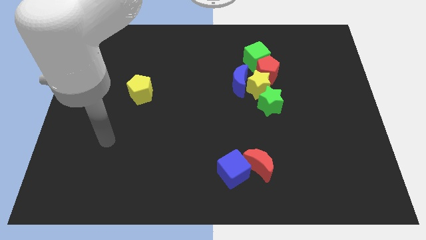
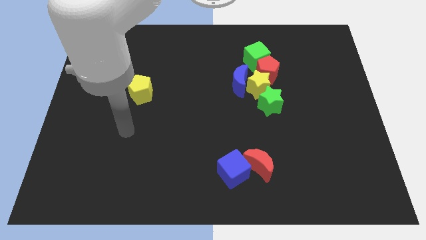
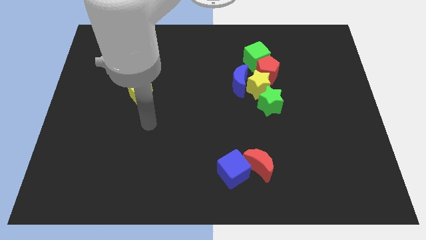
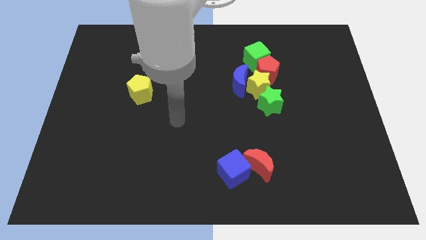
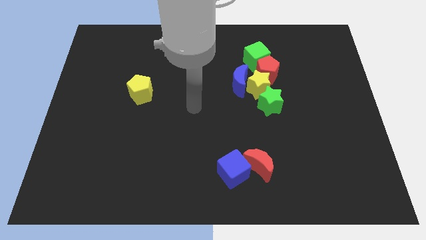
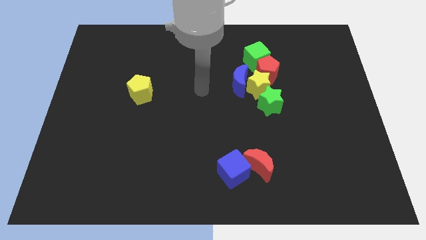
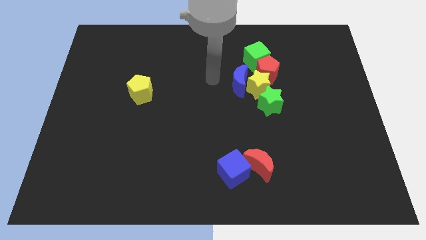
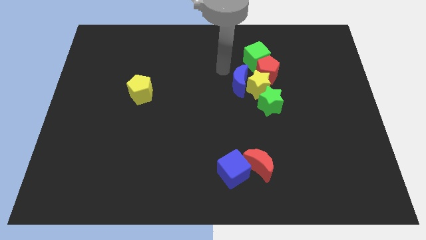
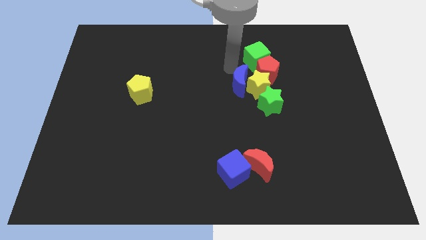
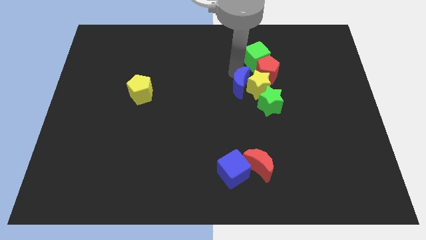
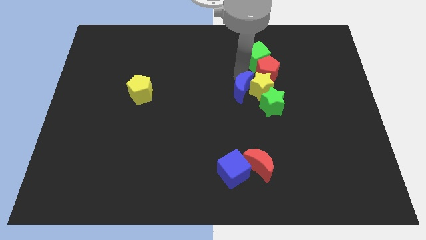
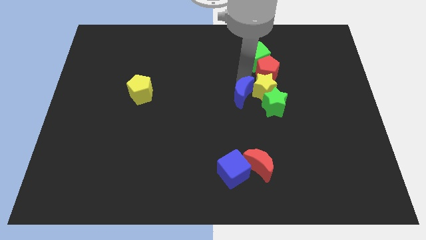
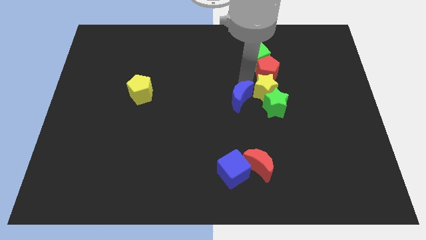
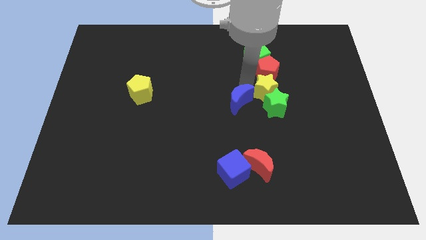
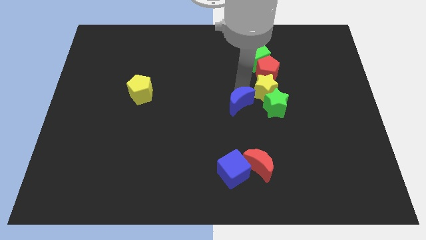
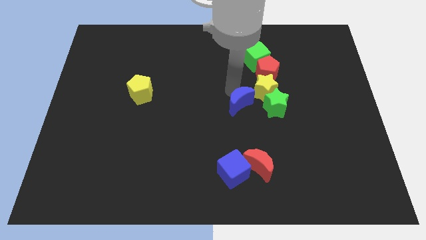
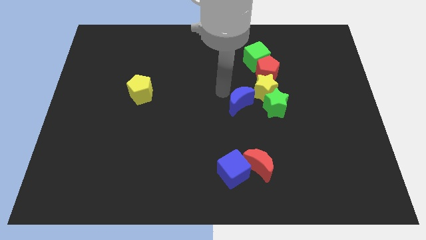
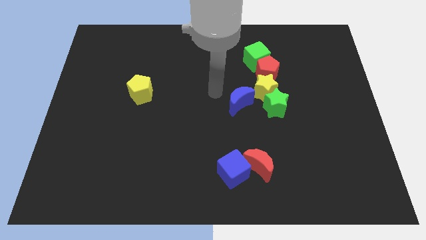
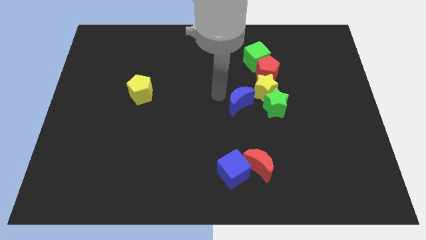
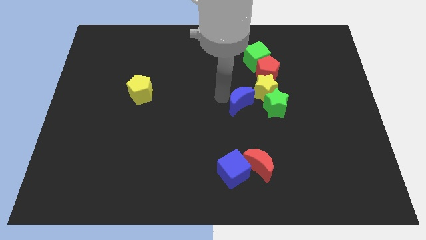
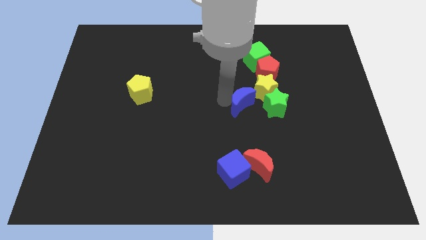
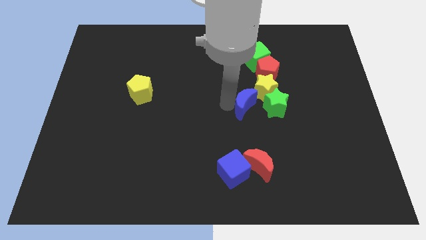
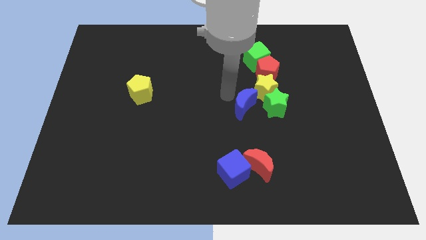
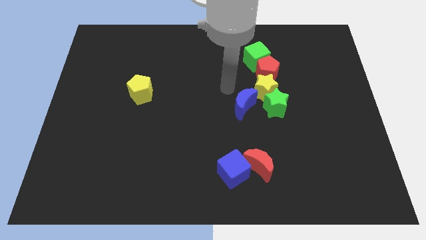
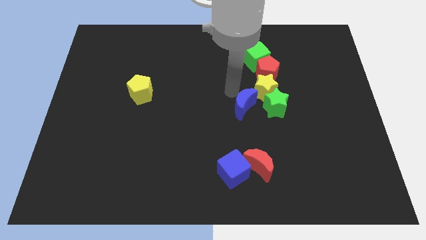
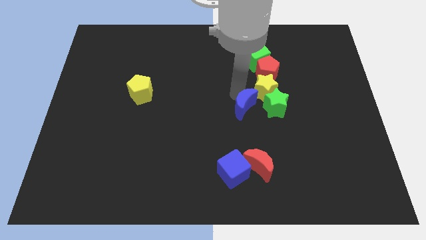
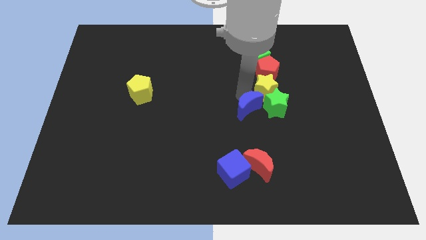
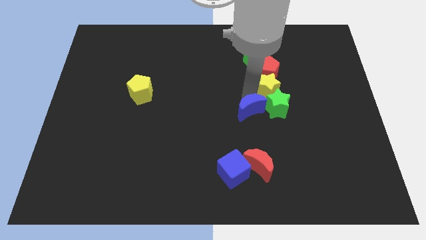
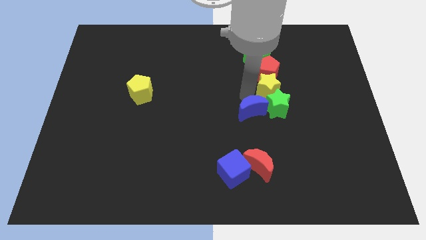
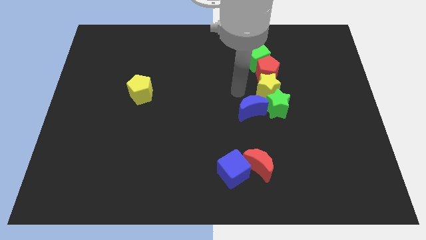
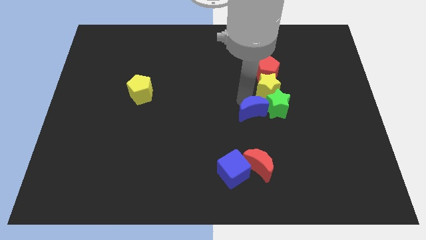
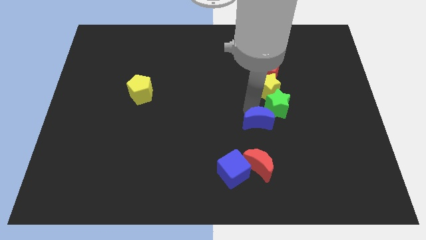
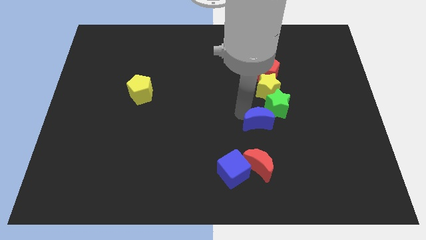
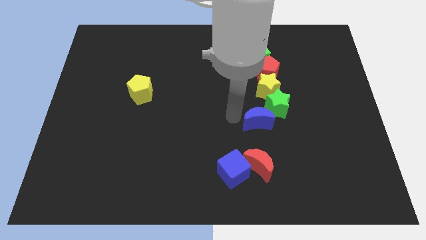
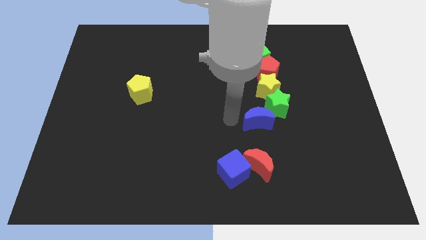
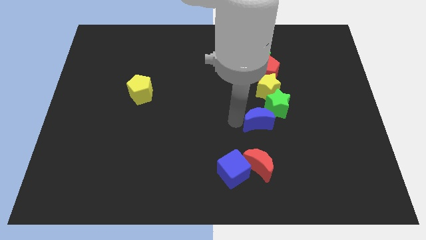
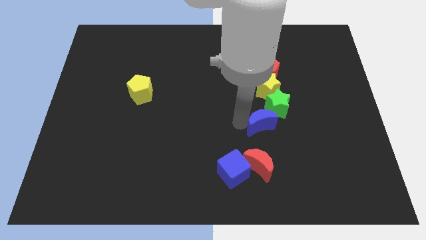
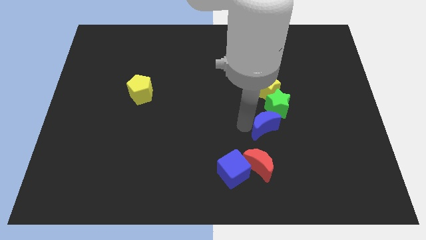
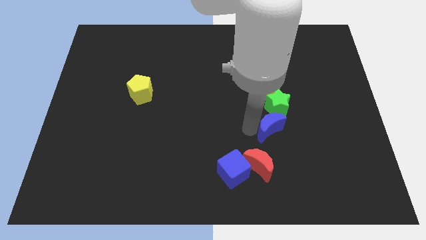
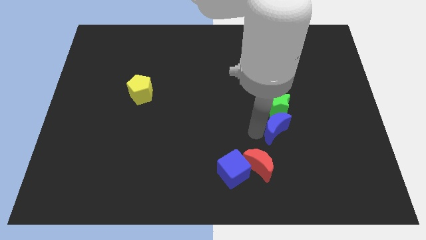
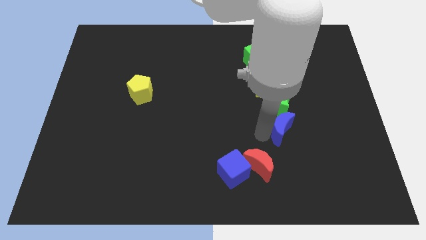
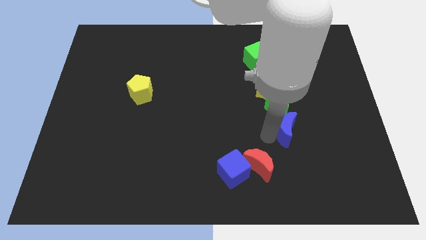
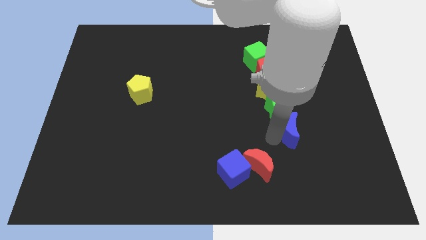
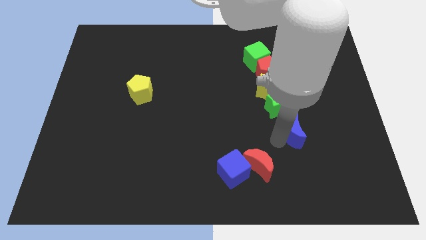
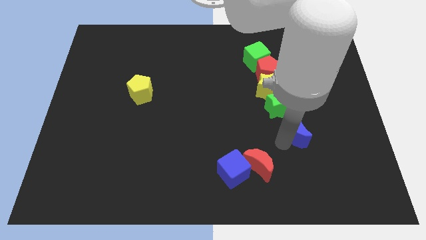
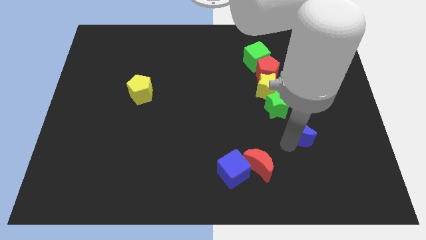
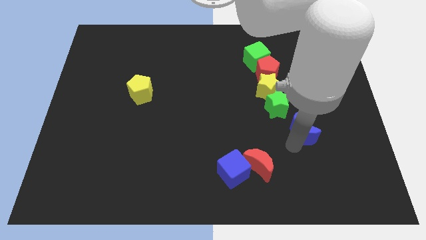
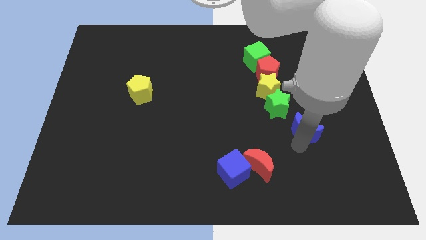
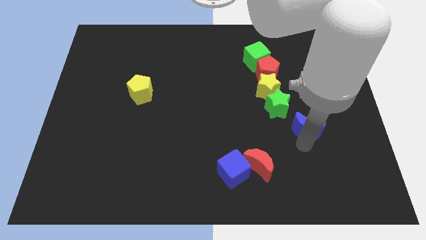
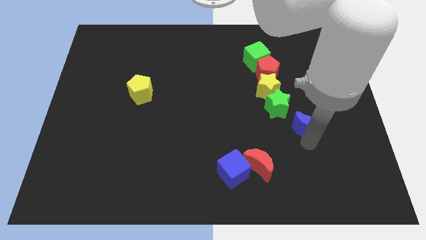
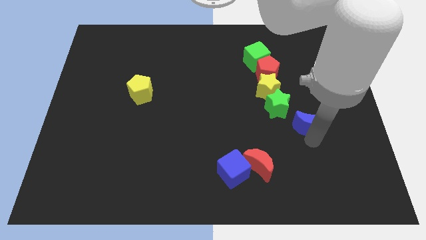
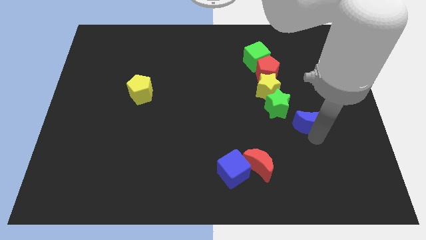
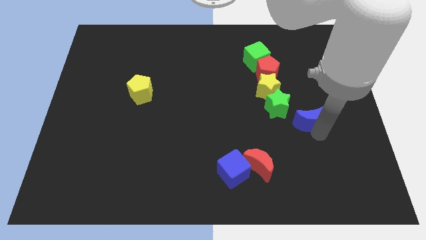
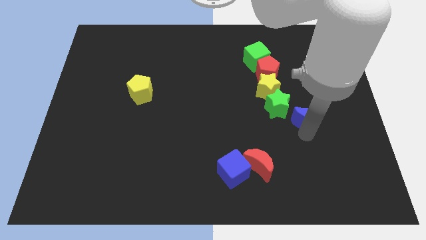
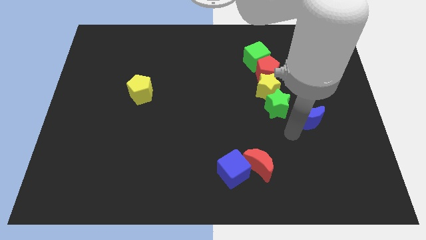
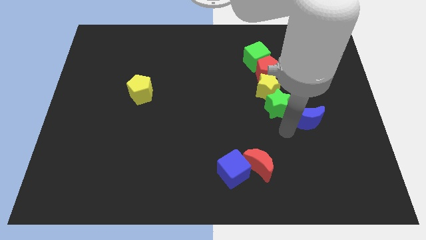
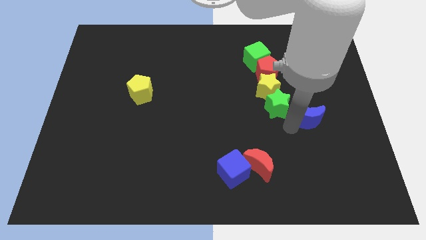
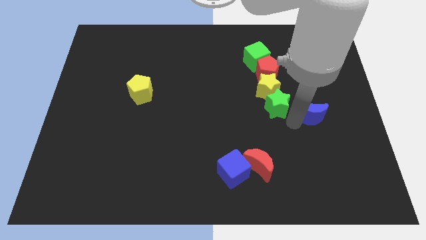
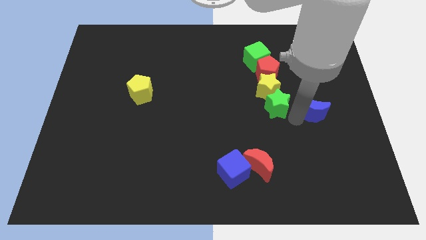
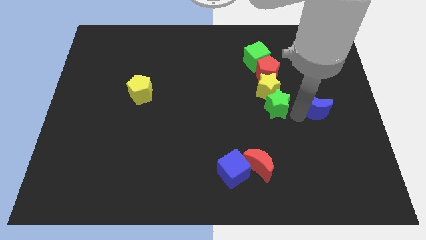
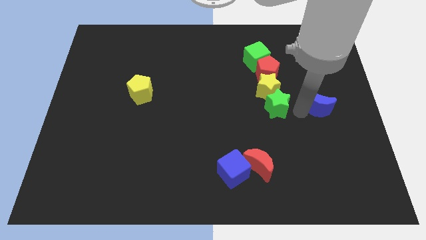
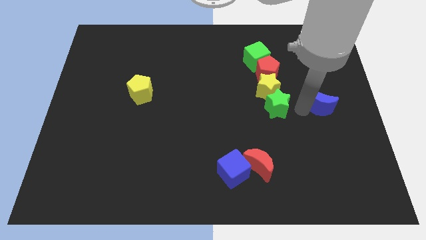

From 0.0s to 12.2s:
put the blue moon to the right side of the board

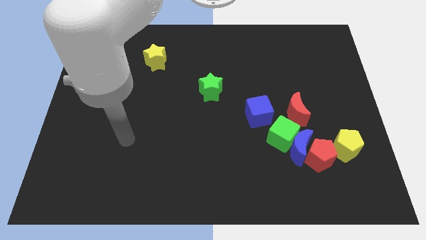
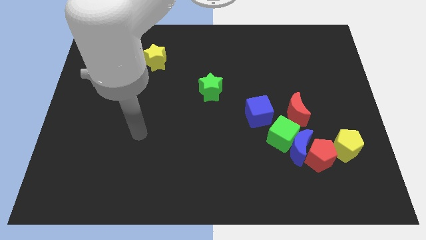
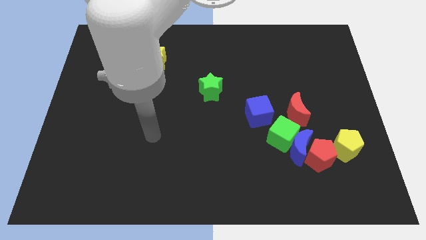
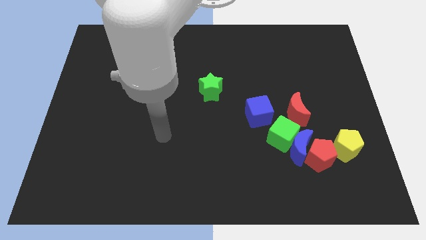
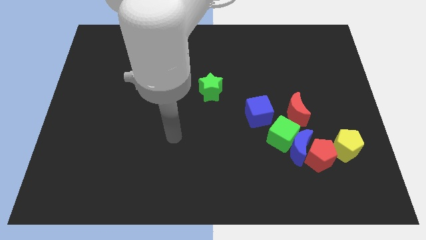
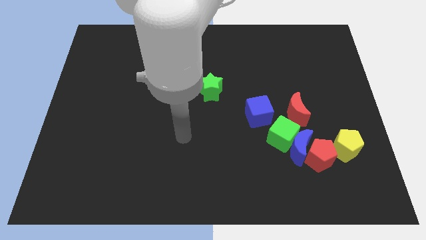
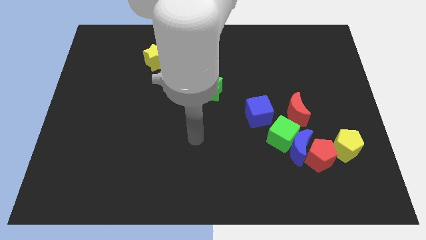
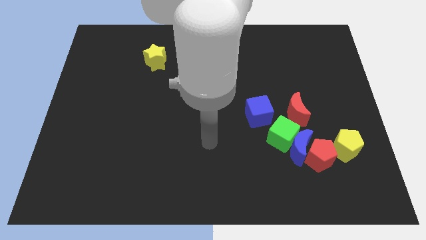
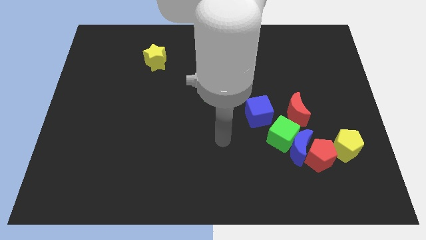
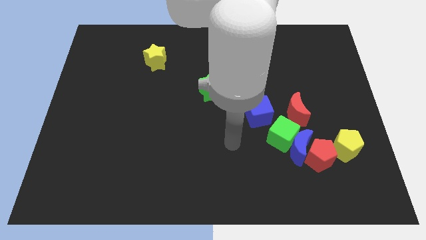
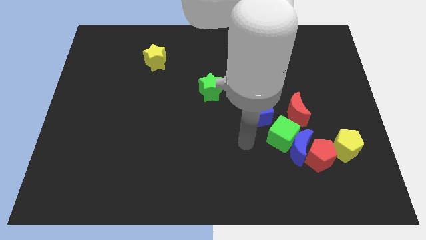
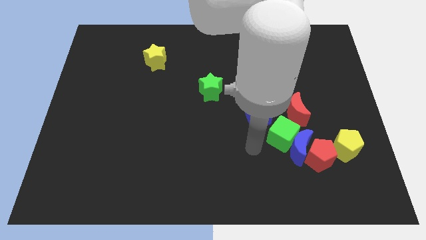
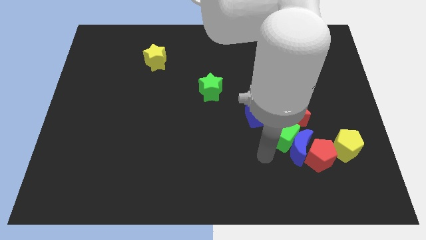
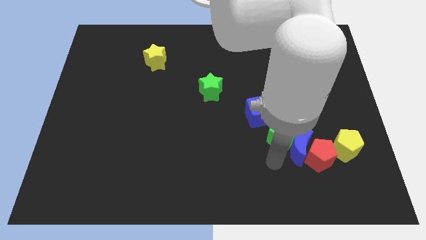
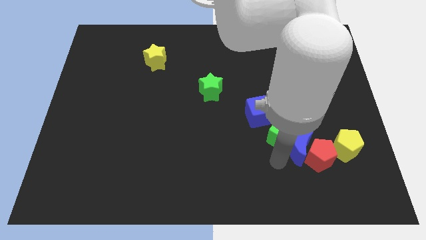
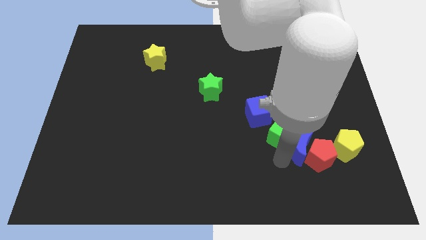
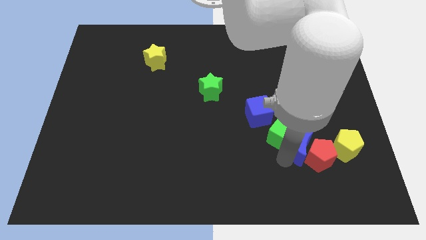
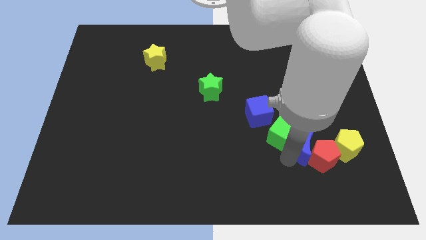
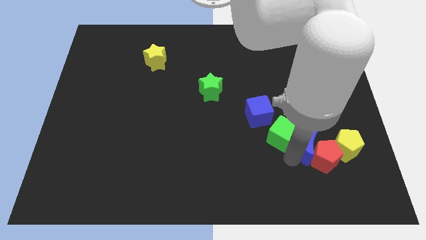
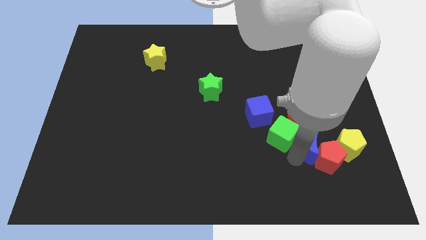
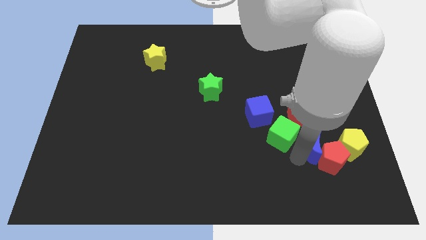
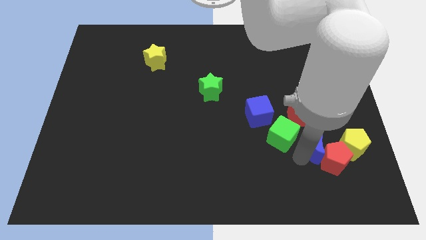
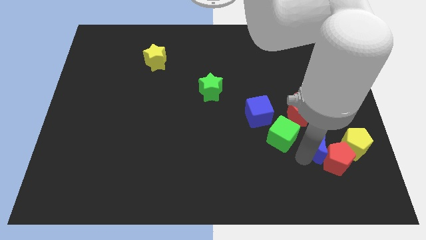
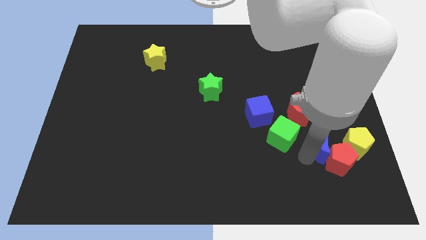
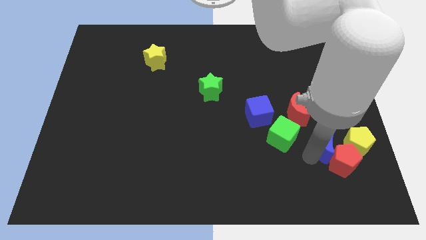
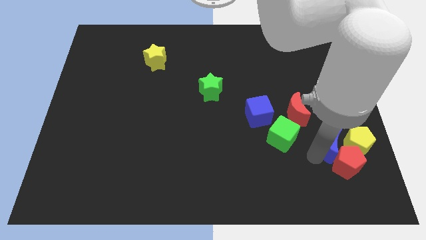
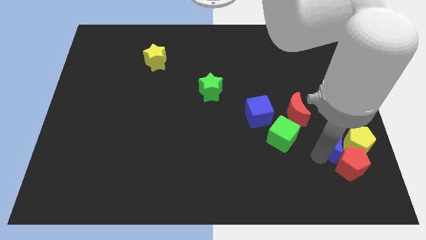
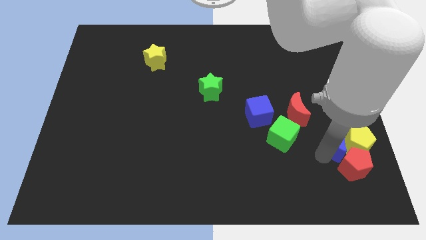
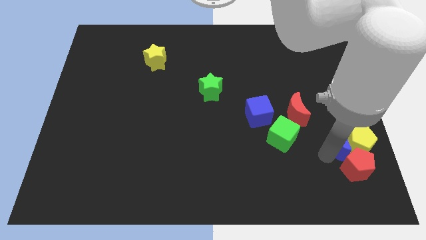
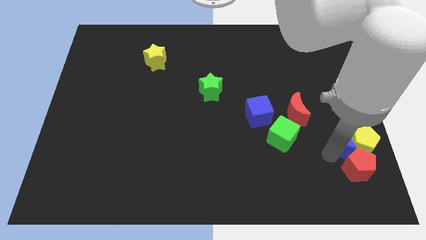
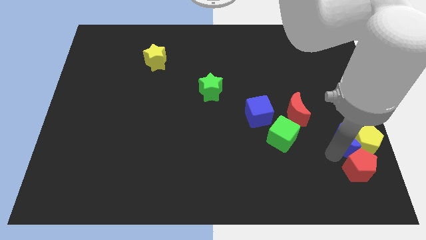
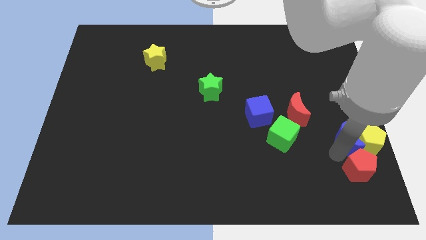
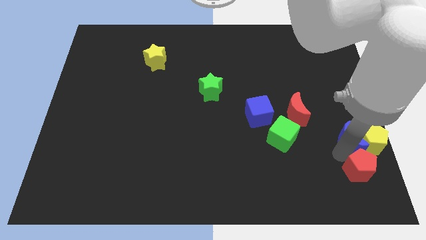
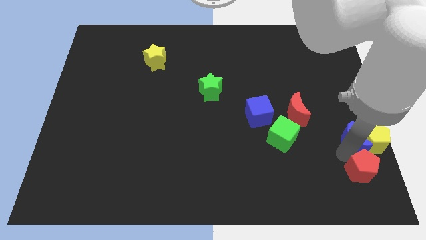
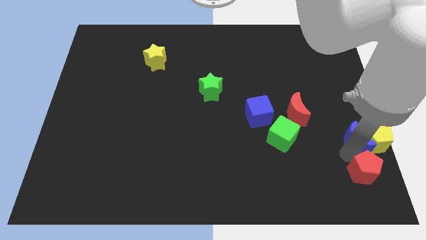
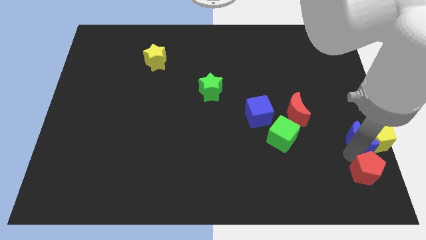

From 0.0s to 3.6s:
put the blue moon to the right side
